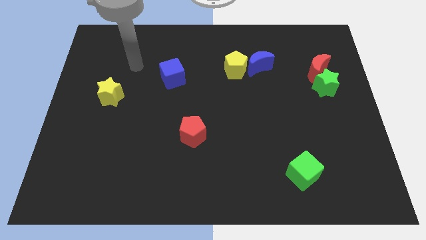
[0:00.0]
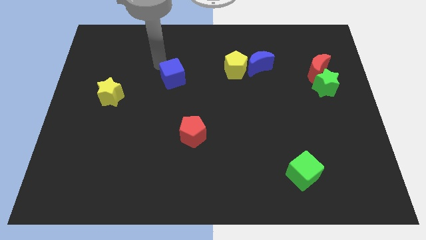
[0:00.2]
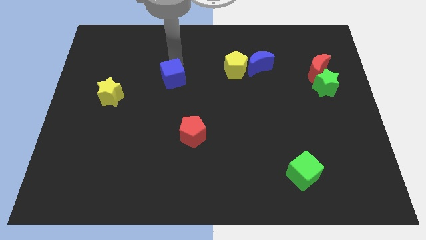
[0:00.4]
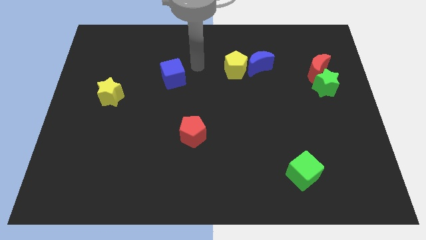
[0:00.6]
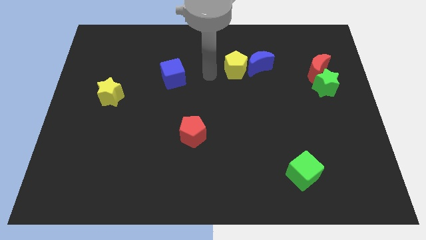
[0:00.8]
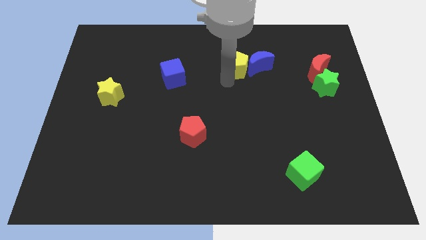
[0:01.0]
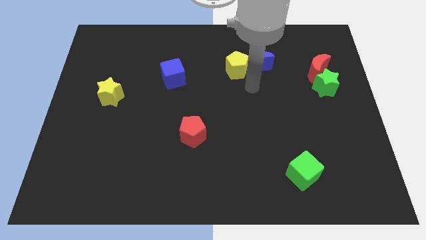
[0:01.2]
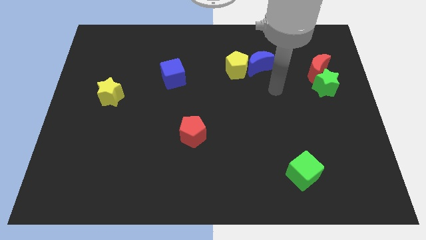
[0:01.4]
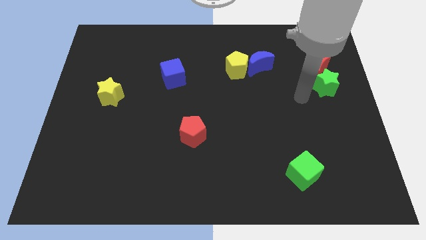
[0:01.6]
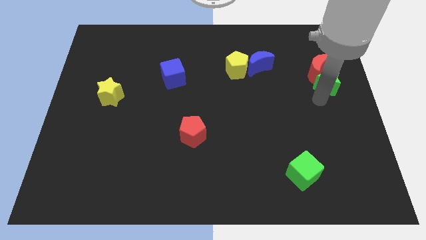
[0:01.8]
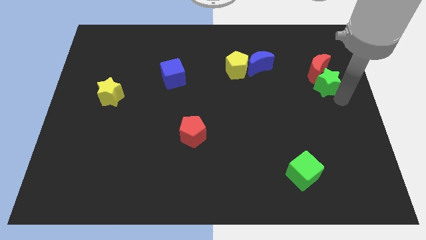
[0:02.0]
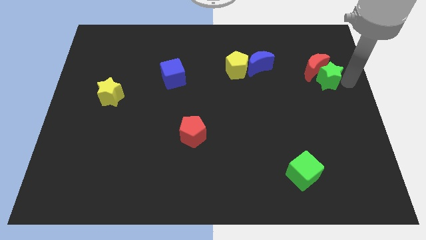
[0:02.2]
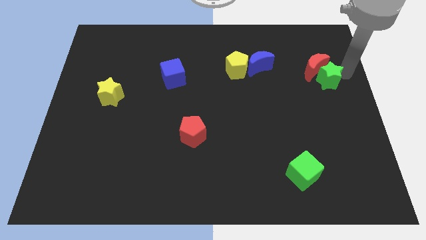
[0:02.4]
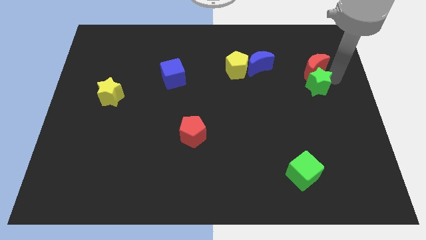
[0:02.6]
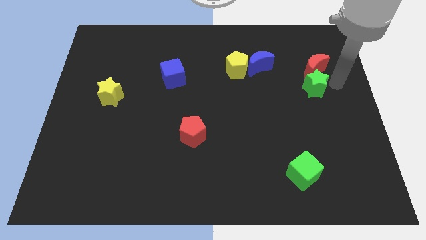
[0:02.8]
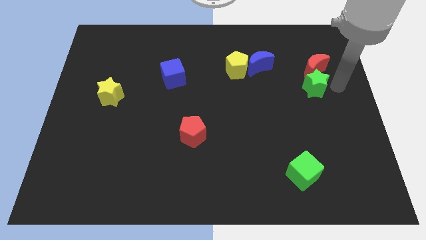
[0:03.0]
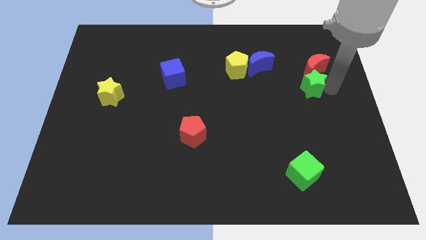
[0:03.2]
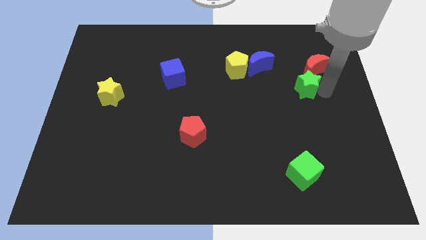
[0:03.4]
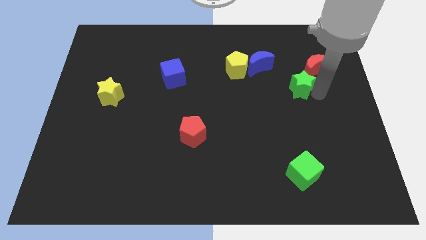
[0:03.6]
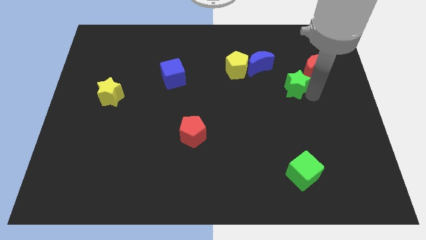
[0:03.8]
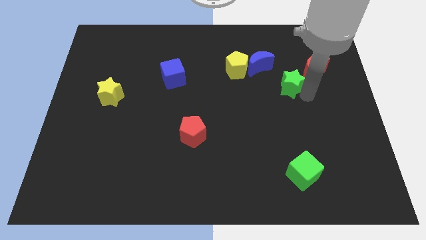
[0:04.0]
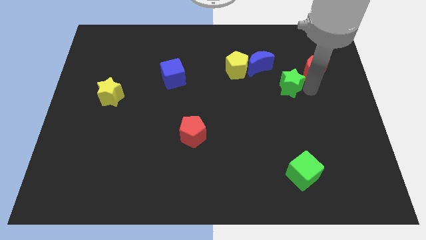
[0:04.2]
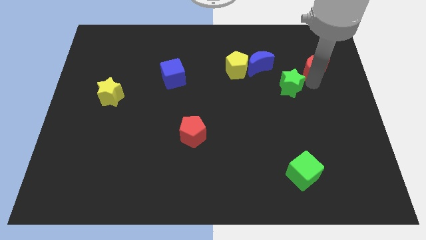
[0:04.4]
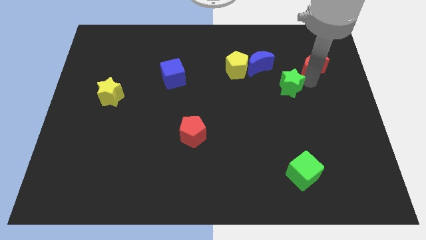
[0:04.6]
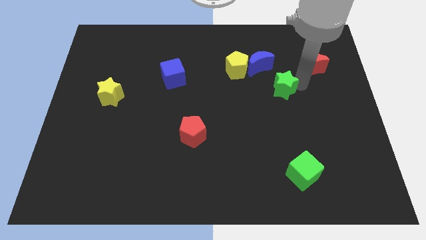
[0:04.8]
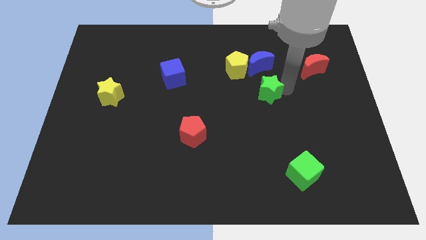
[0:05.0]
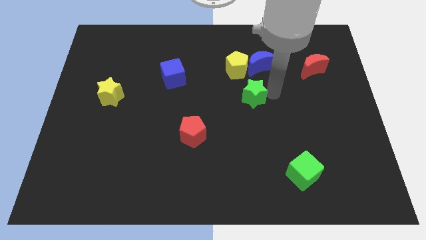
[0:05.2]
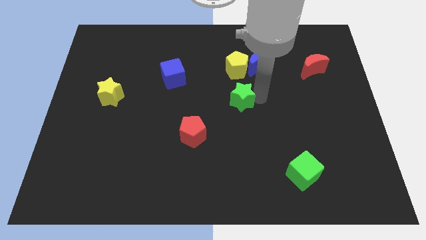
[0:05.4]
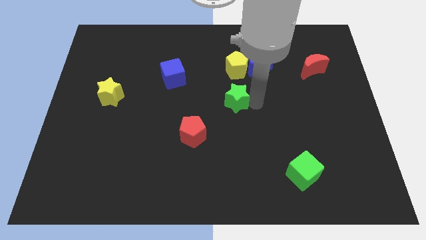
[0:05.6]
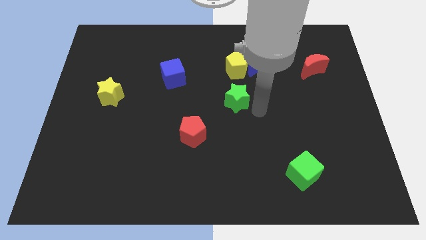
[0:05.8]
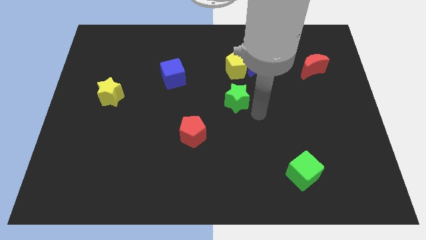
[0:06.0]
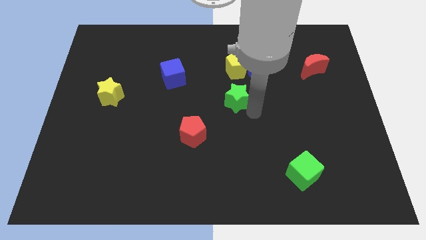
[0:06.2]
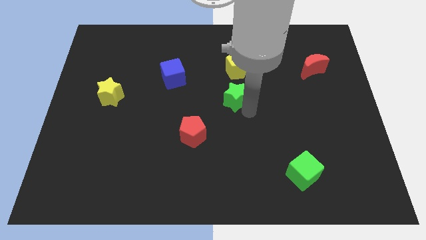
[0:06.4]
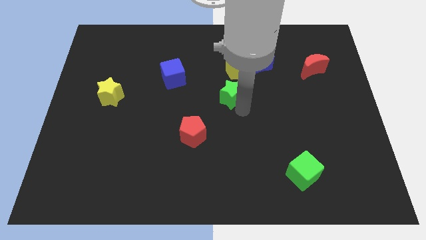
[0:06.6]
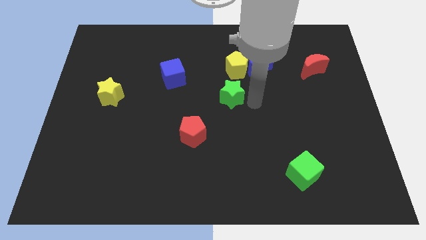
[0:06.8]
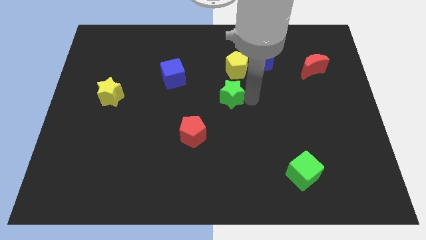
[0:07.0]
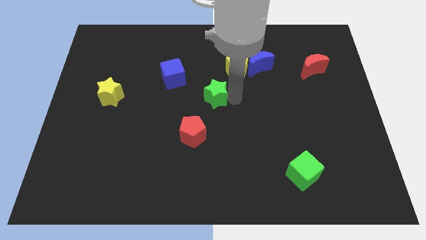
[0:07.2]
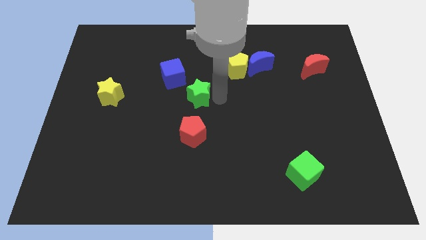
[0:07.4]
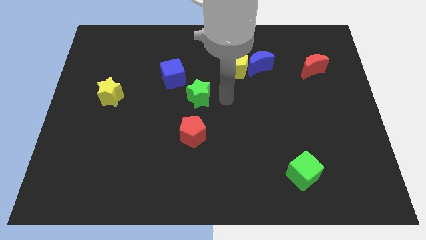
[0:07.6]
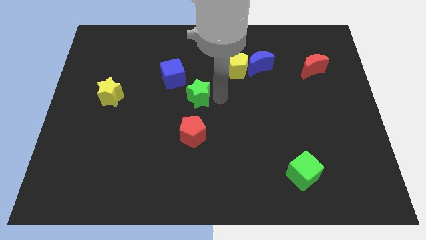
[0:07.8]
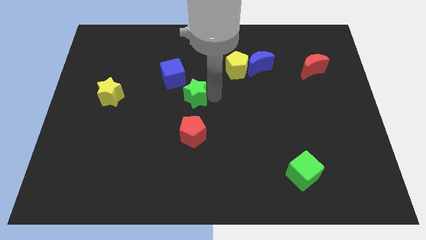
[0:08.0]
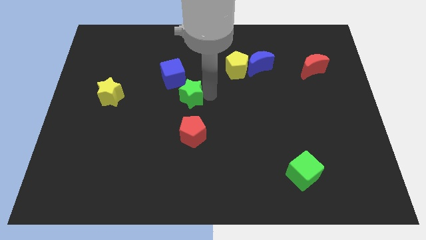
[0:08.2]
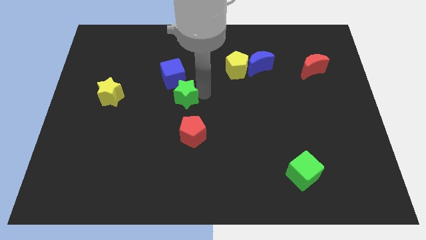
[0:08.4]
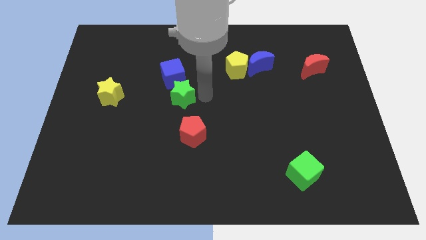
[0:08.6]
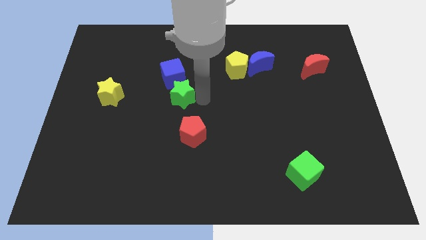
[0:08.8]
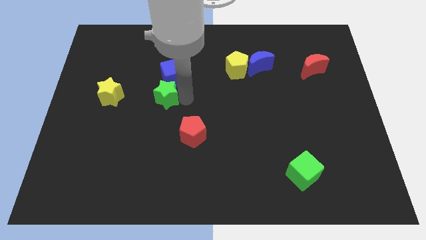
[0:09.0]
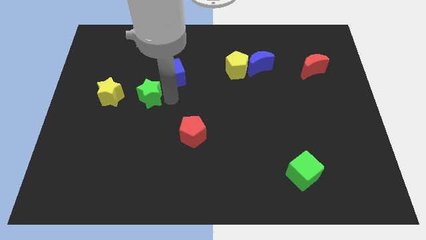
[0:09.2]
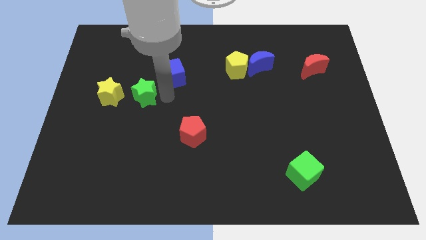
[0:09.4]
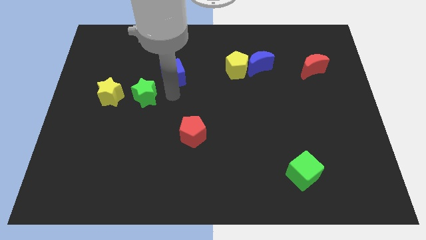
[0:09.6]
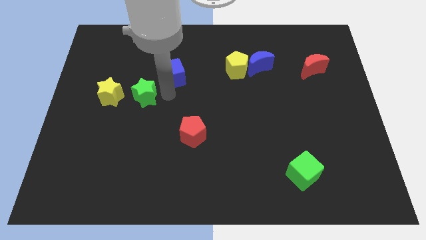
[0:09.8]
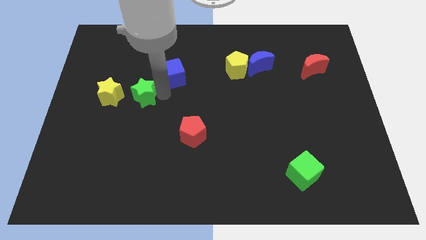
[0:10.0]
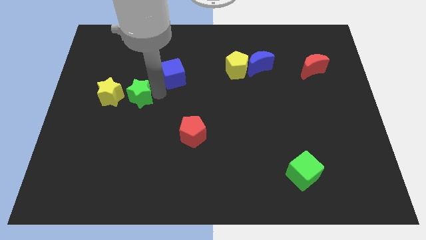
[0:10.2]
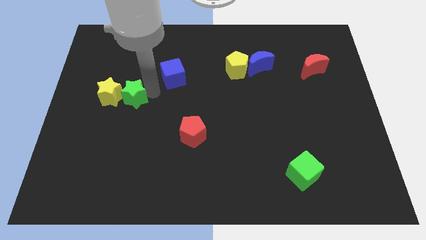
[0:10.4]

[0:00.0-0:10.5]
move the green star to the yellow star

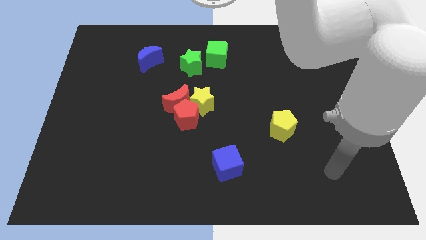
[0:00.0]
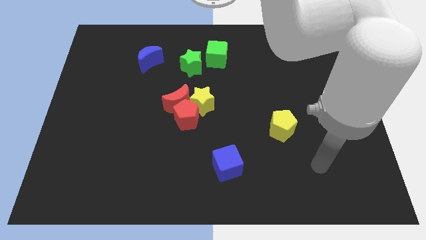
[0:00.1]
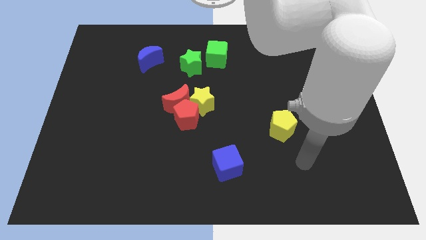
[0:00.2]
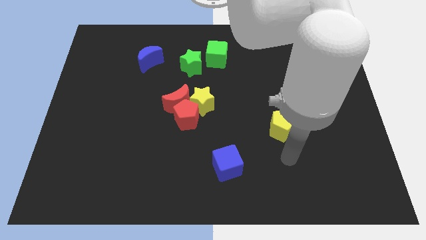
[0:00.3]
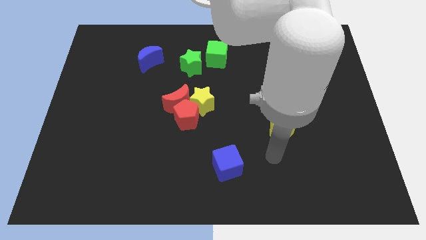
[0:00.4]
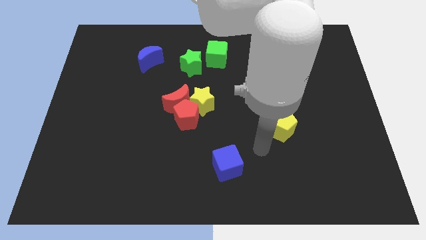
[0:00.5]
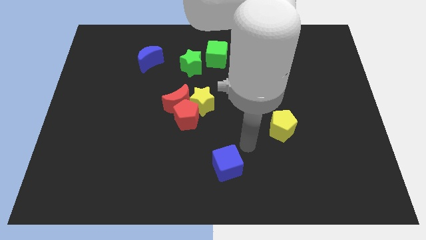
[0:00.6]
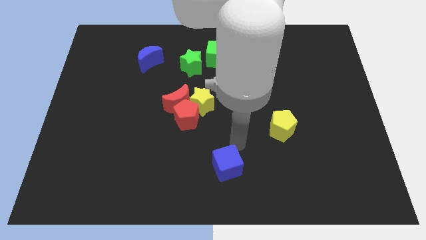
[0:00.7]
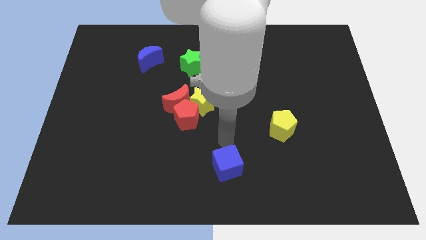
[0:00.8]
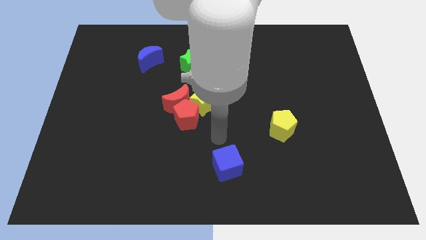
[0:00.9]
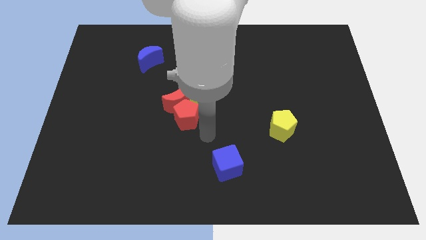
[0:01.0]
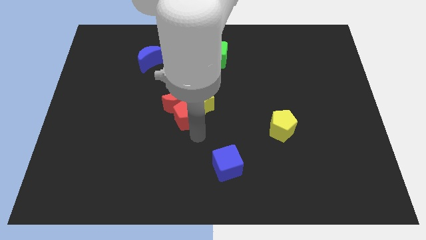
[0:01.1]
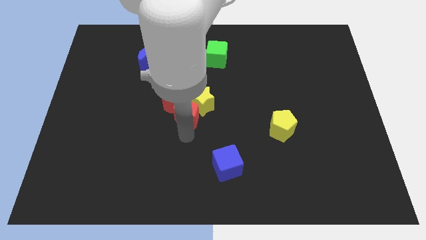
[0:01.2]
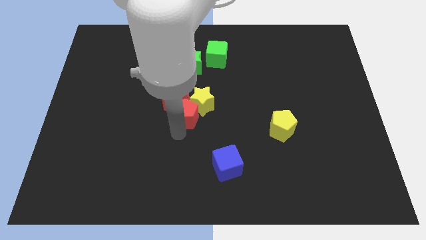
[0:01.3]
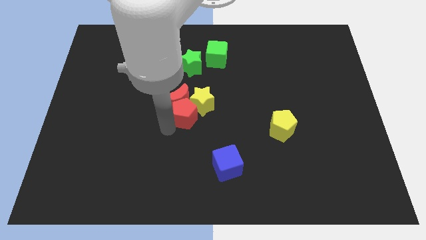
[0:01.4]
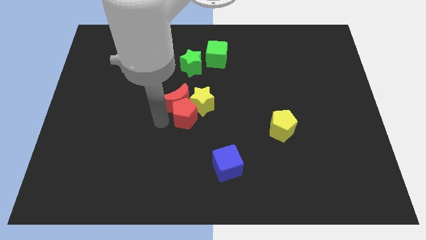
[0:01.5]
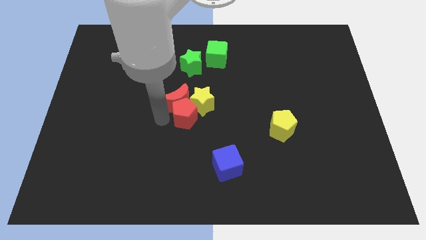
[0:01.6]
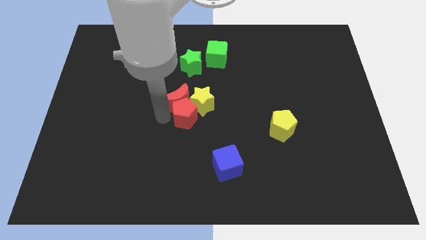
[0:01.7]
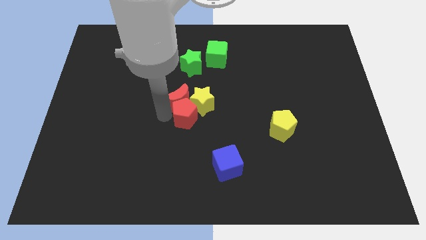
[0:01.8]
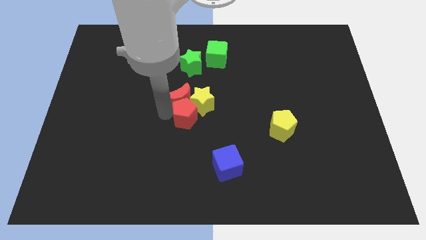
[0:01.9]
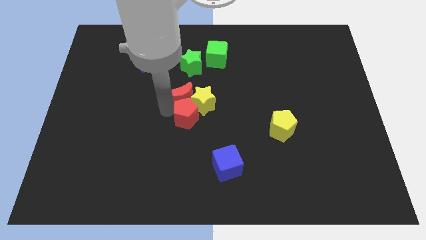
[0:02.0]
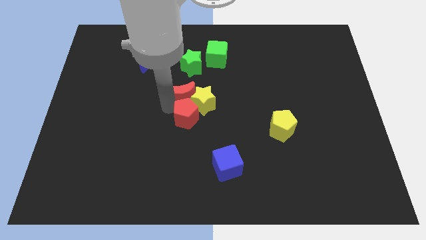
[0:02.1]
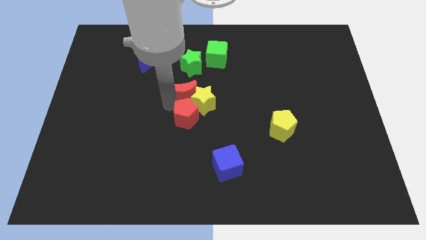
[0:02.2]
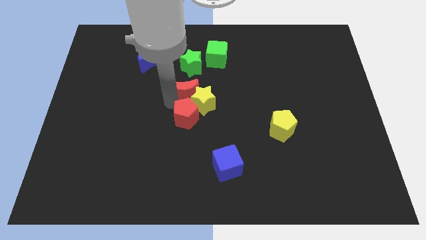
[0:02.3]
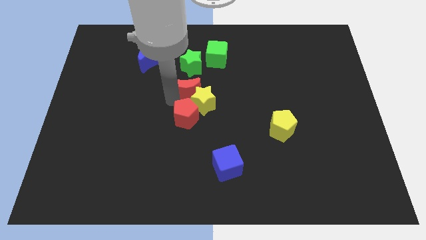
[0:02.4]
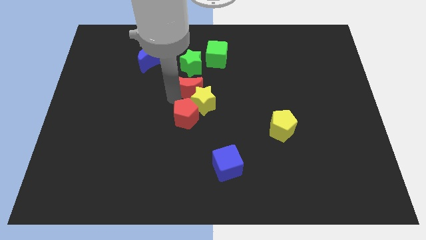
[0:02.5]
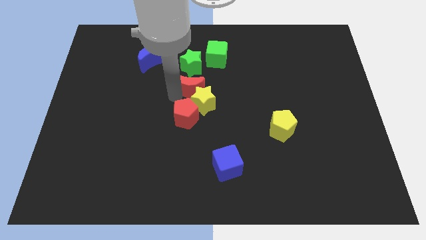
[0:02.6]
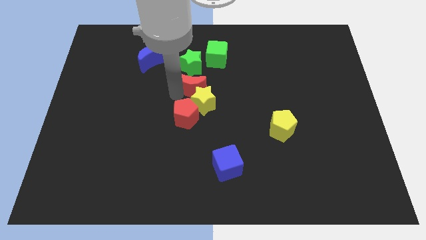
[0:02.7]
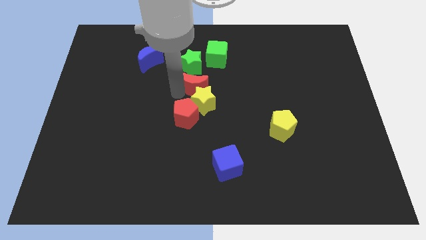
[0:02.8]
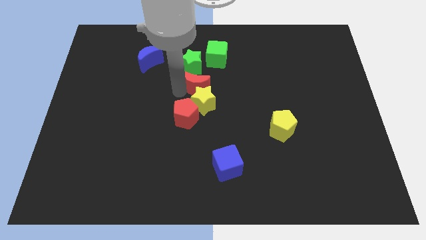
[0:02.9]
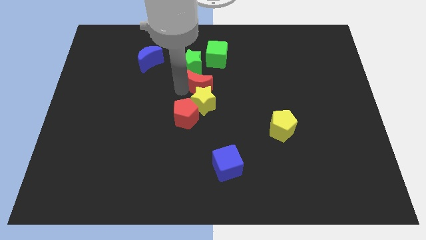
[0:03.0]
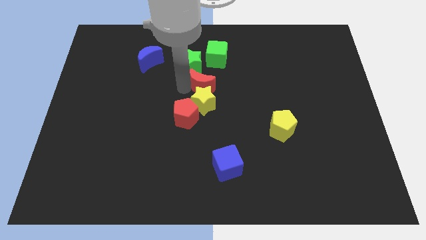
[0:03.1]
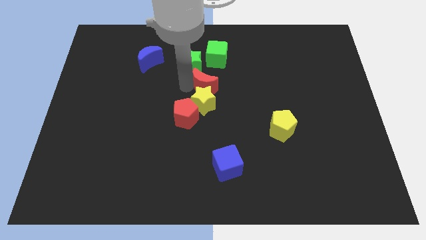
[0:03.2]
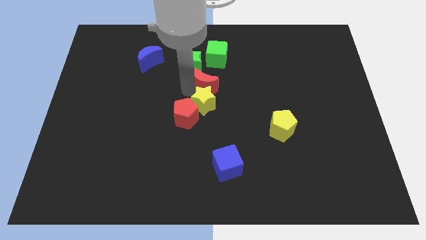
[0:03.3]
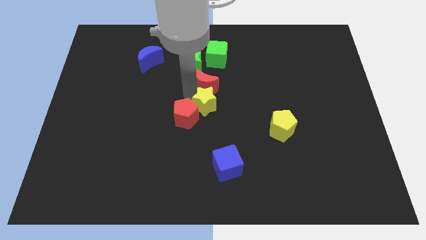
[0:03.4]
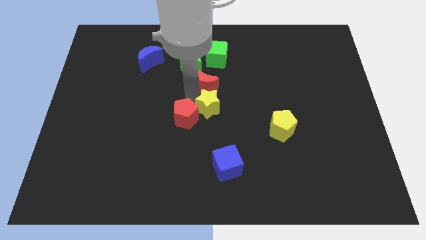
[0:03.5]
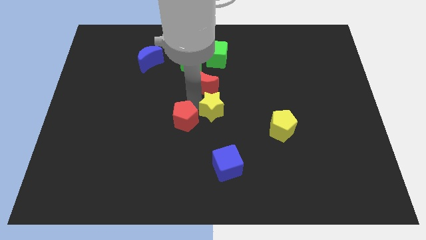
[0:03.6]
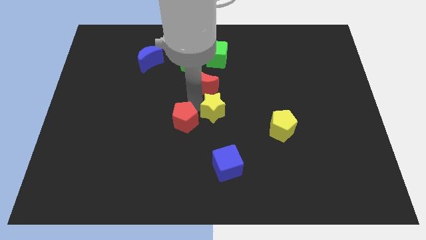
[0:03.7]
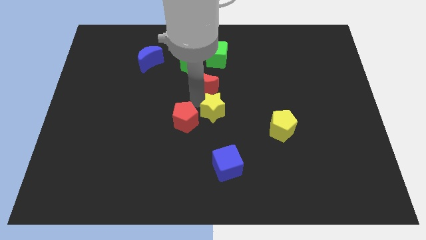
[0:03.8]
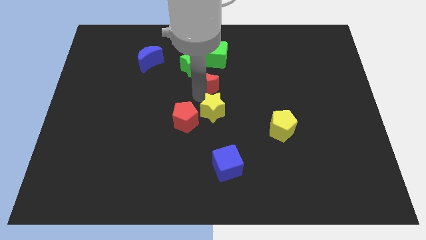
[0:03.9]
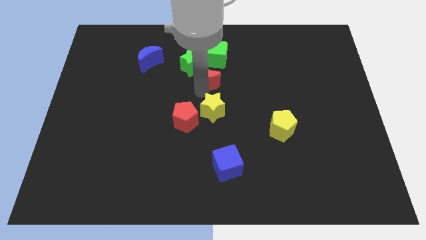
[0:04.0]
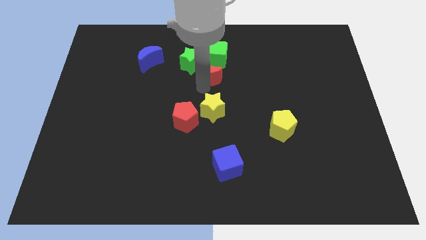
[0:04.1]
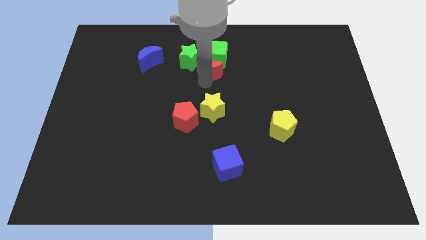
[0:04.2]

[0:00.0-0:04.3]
slide the red moon towards the green cube
